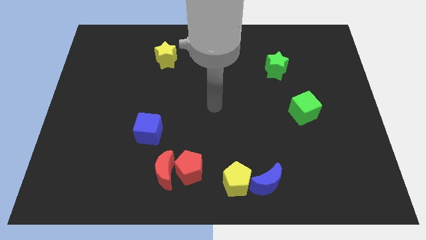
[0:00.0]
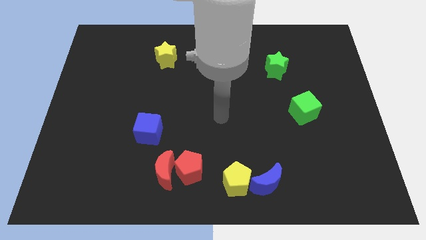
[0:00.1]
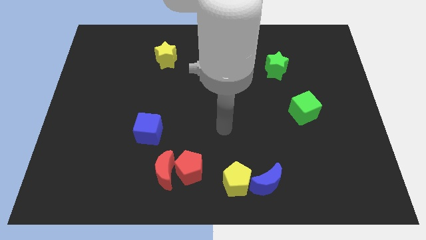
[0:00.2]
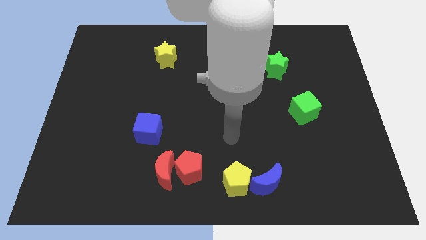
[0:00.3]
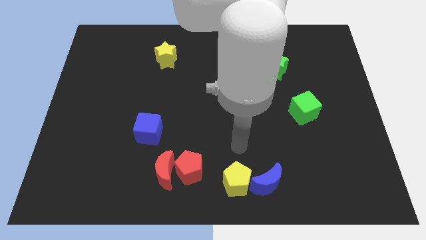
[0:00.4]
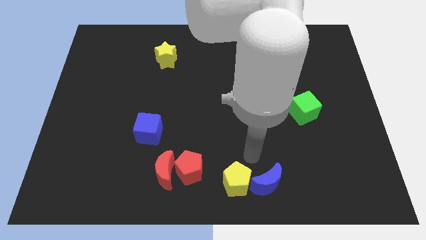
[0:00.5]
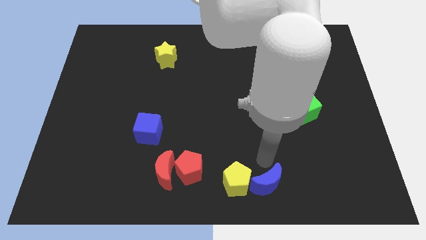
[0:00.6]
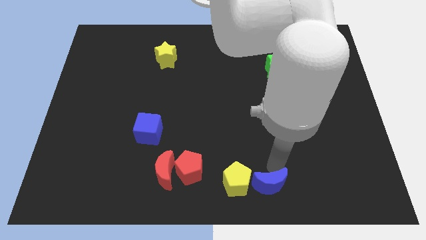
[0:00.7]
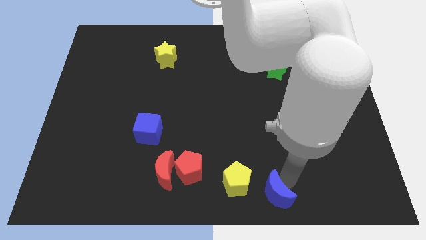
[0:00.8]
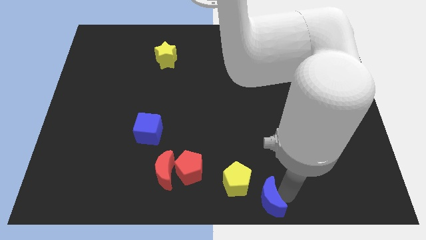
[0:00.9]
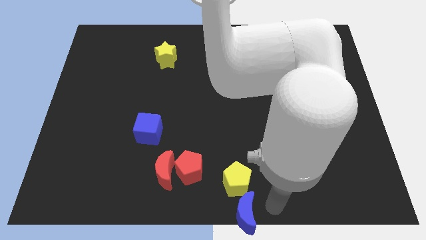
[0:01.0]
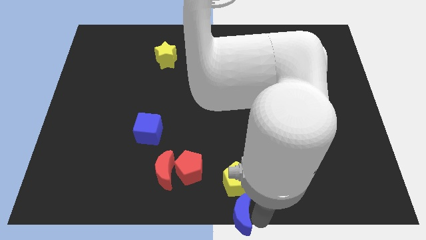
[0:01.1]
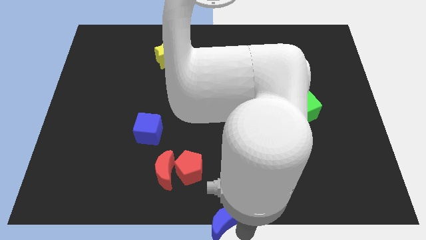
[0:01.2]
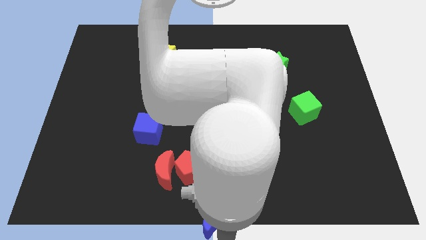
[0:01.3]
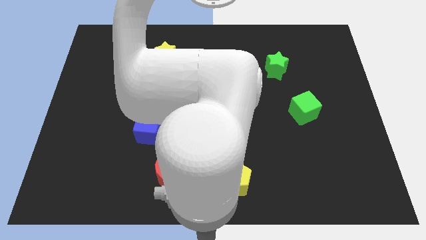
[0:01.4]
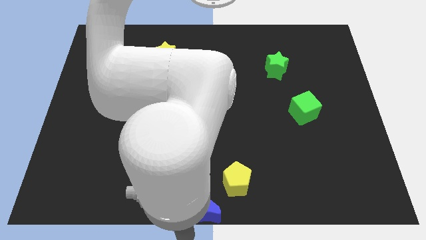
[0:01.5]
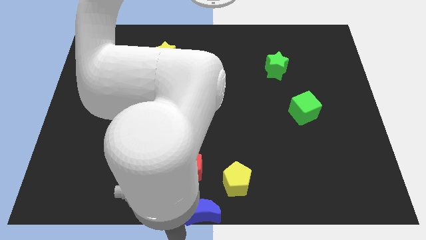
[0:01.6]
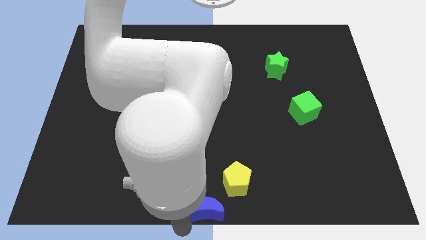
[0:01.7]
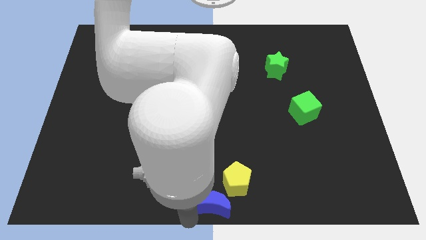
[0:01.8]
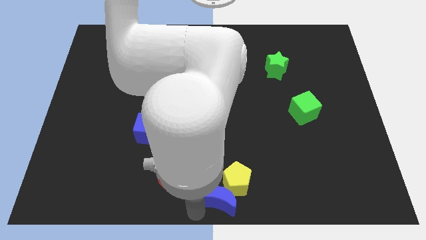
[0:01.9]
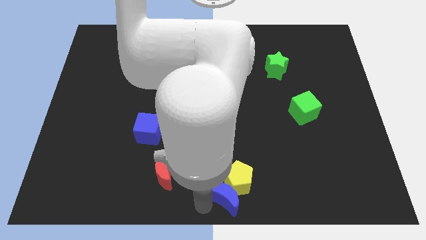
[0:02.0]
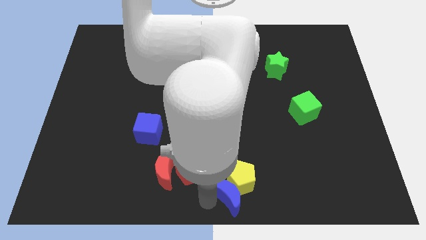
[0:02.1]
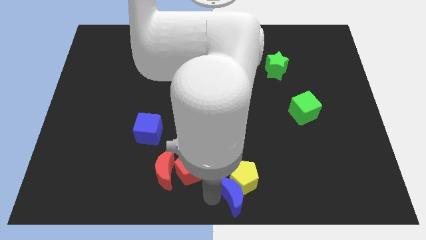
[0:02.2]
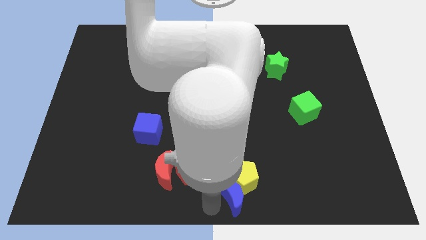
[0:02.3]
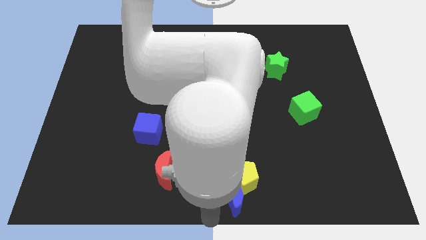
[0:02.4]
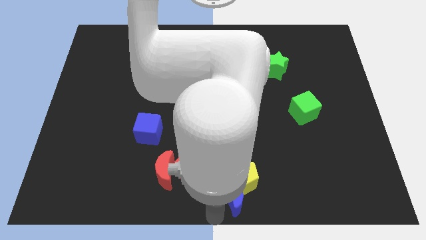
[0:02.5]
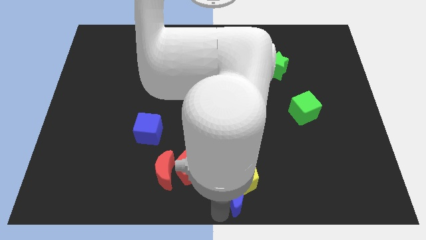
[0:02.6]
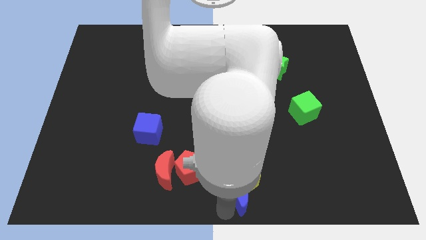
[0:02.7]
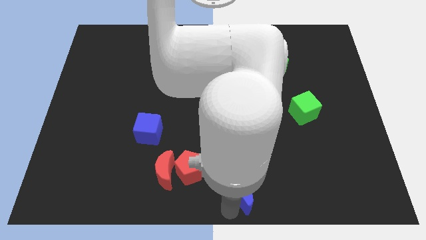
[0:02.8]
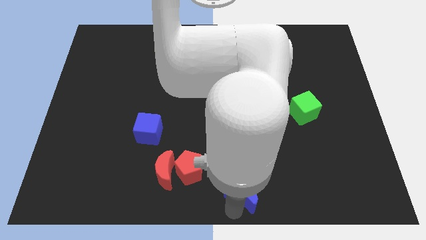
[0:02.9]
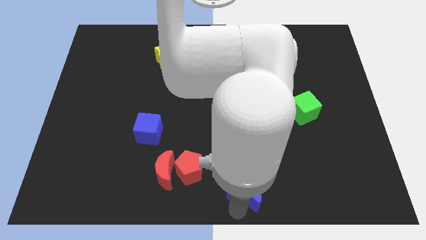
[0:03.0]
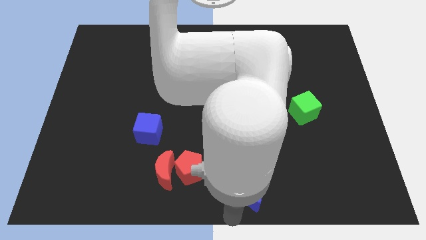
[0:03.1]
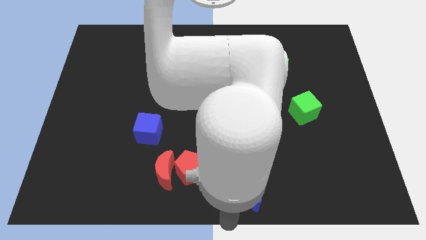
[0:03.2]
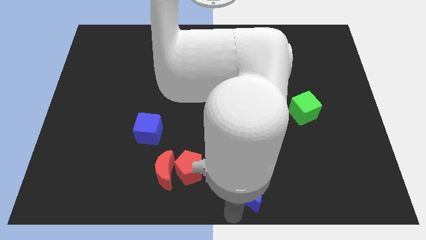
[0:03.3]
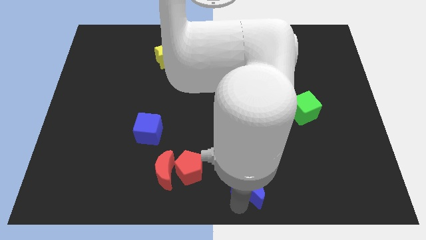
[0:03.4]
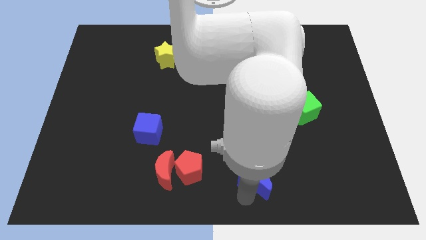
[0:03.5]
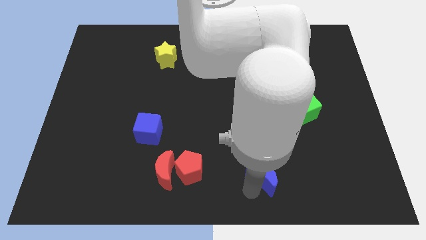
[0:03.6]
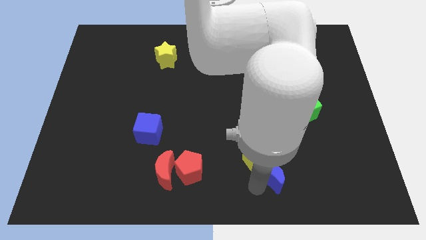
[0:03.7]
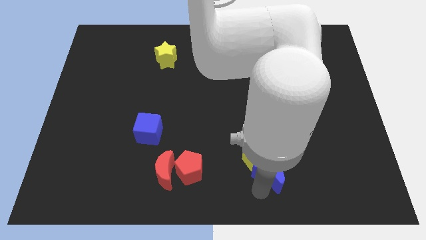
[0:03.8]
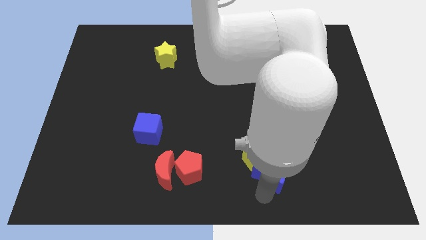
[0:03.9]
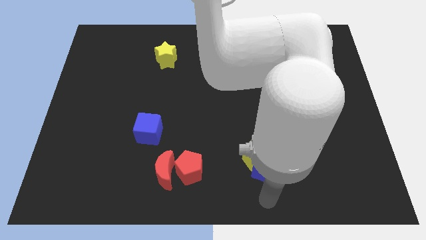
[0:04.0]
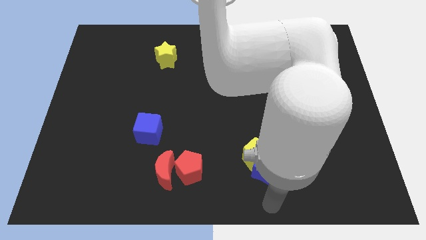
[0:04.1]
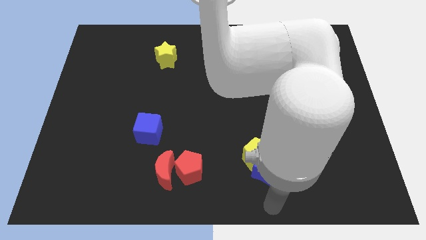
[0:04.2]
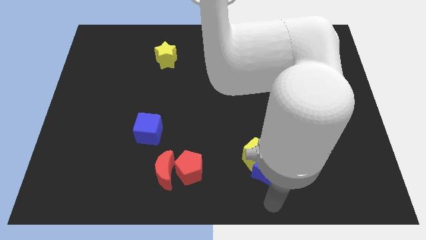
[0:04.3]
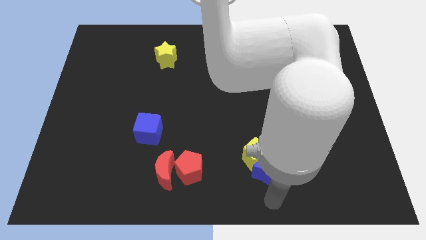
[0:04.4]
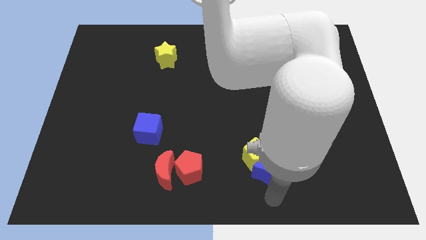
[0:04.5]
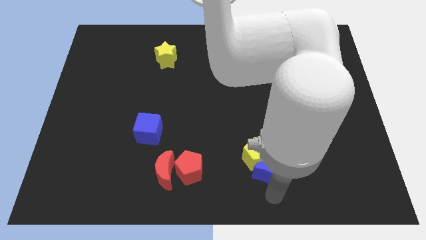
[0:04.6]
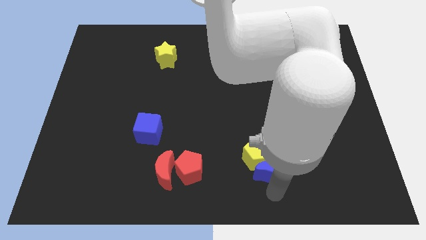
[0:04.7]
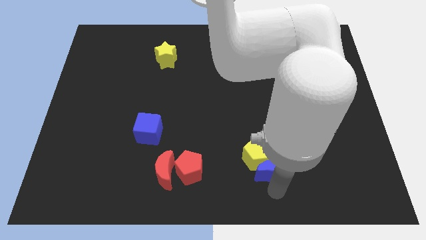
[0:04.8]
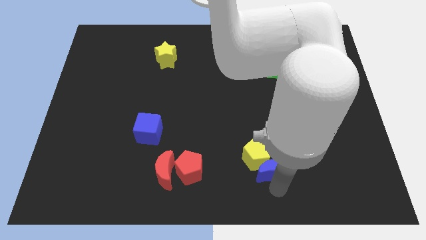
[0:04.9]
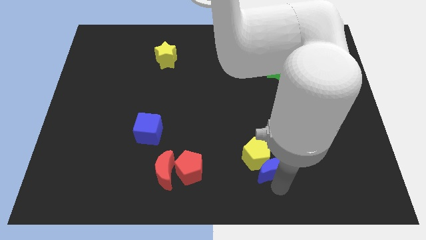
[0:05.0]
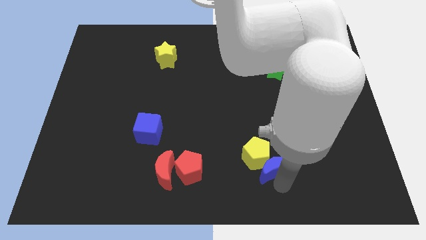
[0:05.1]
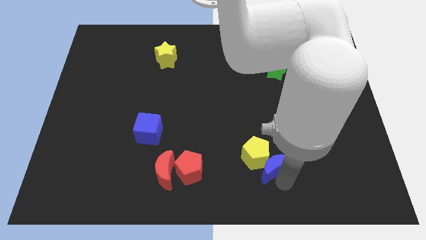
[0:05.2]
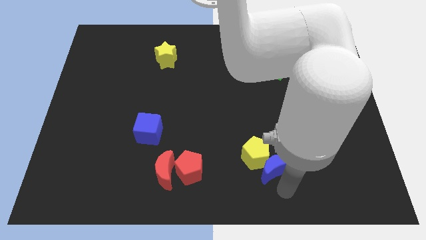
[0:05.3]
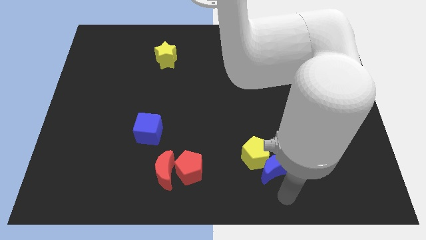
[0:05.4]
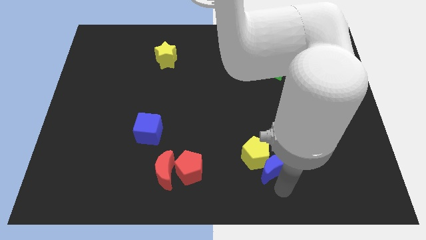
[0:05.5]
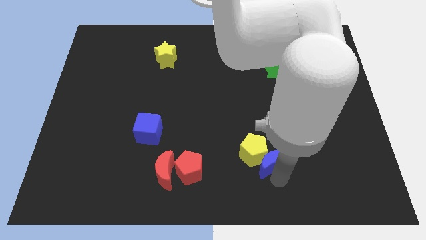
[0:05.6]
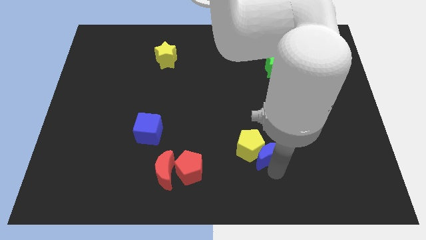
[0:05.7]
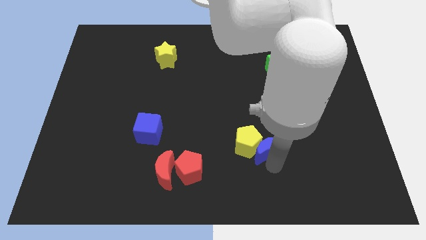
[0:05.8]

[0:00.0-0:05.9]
push the blue moon upwards a little

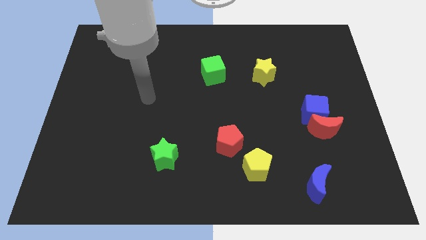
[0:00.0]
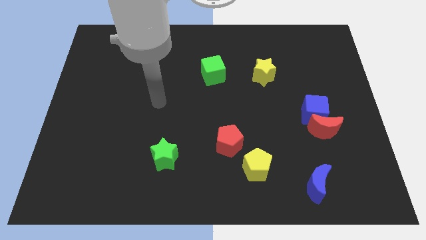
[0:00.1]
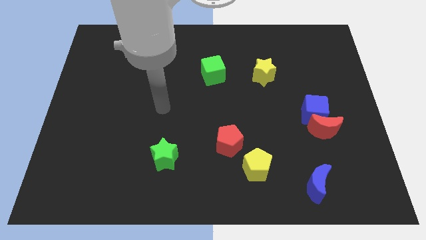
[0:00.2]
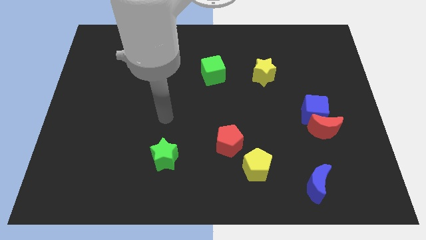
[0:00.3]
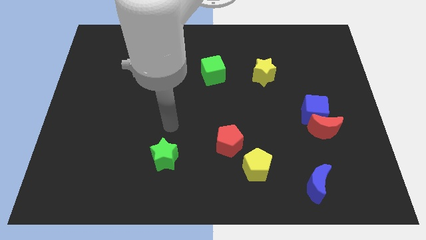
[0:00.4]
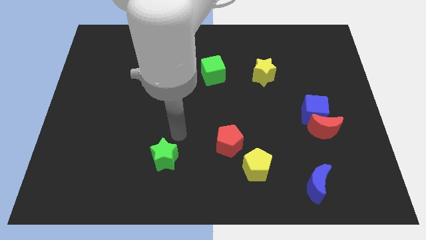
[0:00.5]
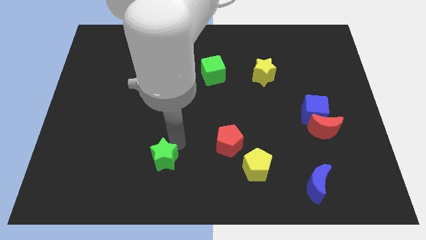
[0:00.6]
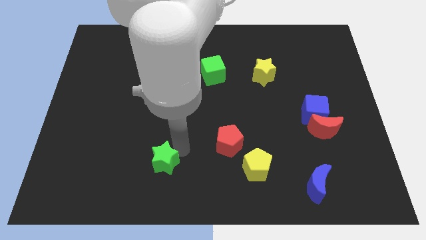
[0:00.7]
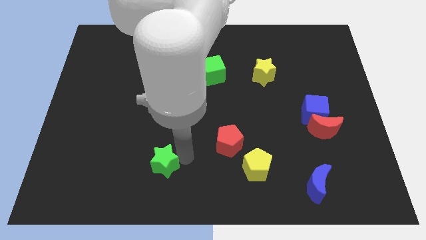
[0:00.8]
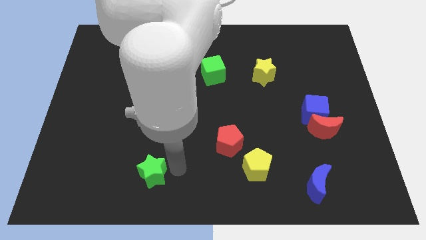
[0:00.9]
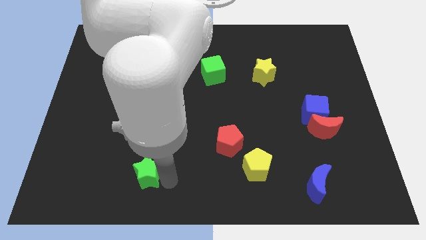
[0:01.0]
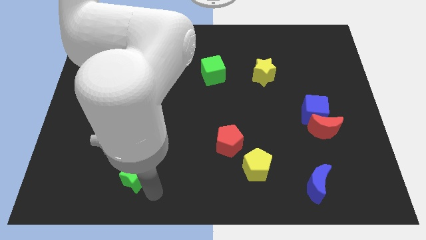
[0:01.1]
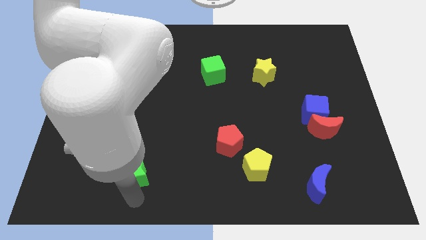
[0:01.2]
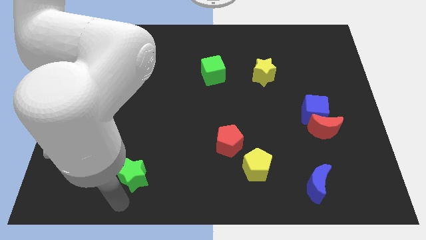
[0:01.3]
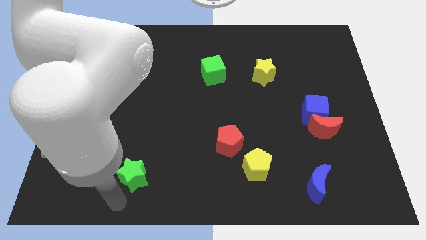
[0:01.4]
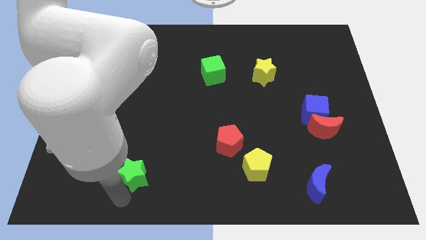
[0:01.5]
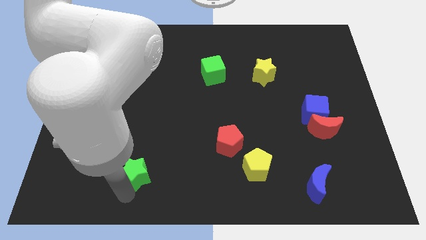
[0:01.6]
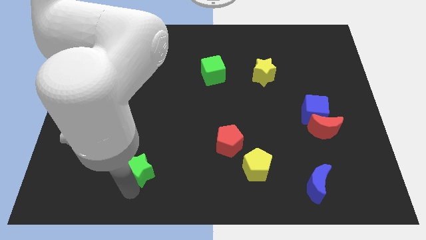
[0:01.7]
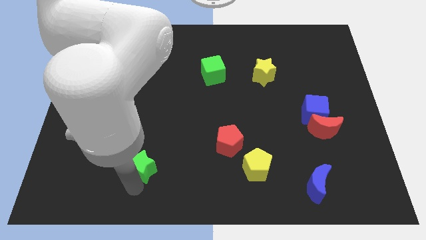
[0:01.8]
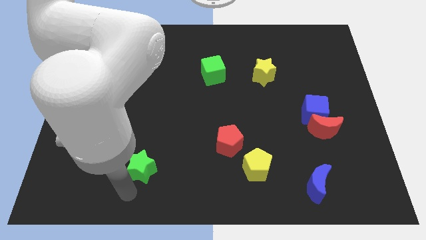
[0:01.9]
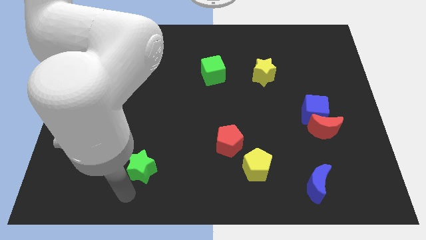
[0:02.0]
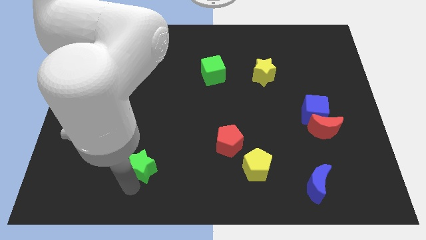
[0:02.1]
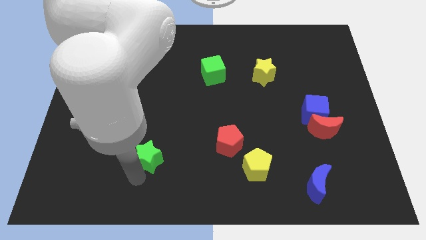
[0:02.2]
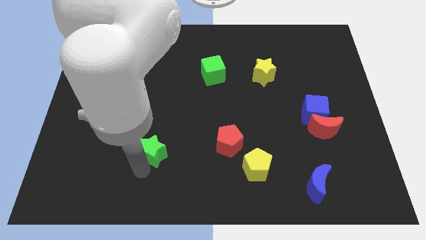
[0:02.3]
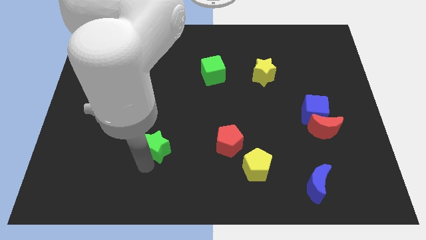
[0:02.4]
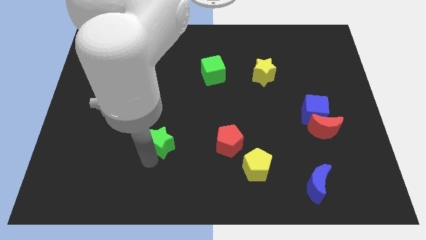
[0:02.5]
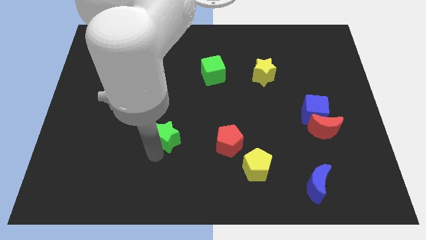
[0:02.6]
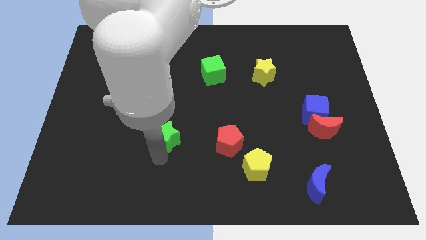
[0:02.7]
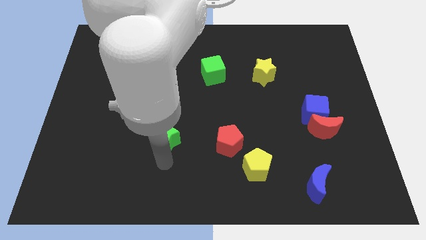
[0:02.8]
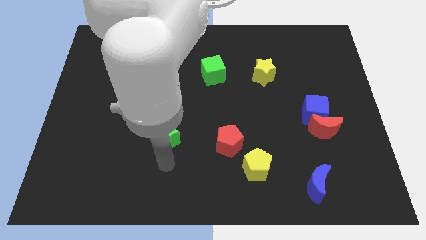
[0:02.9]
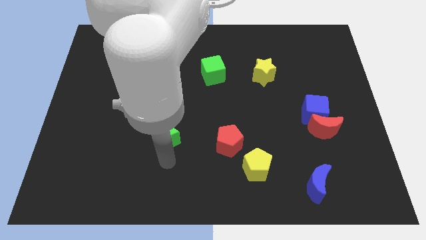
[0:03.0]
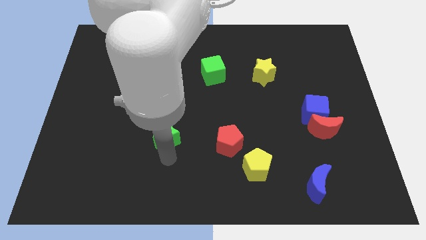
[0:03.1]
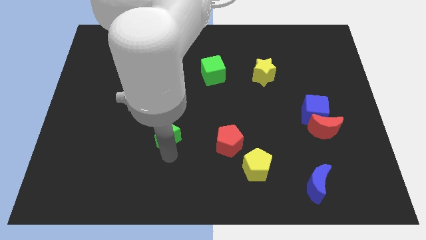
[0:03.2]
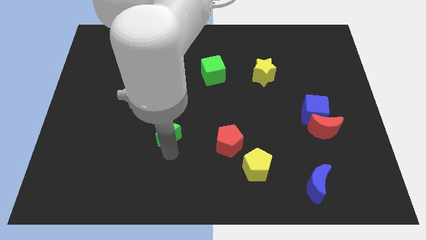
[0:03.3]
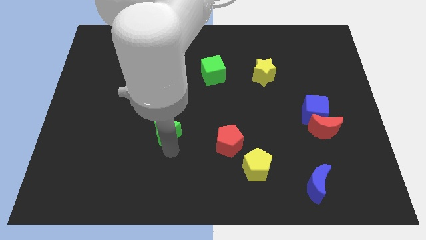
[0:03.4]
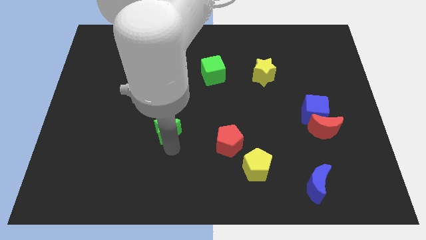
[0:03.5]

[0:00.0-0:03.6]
slightly slide the green star upwards
